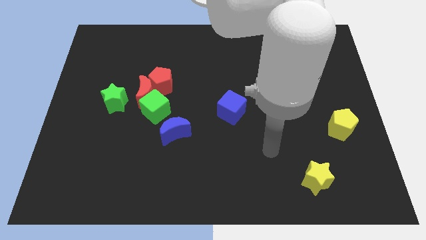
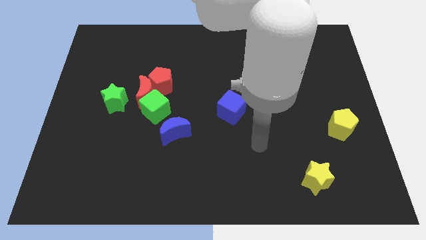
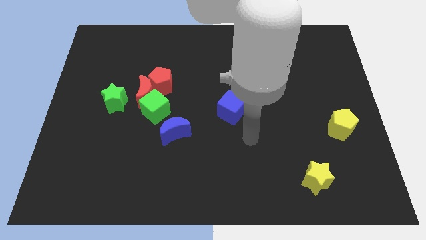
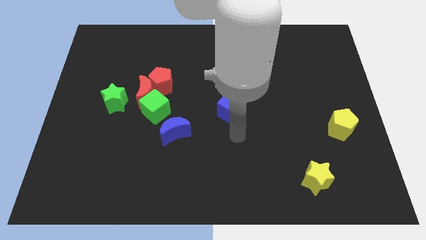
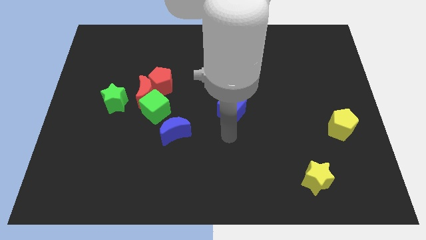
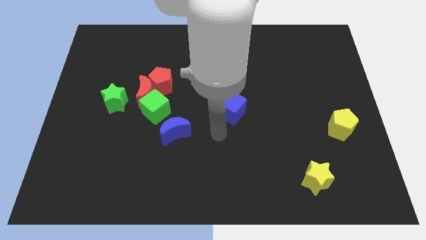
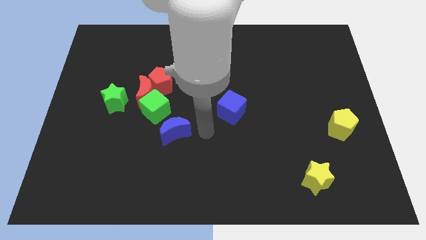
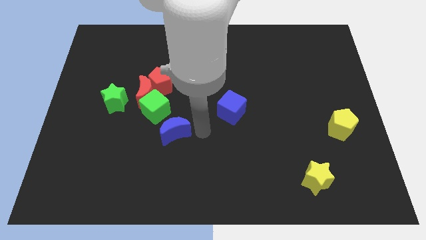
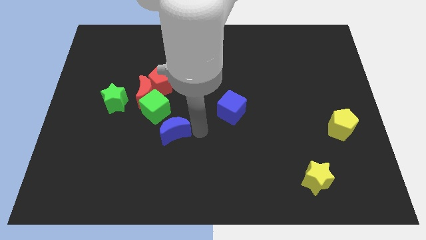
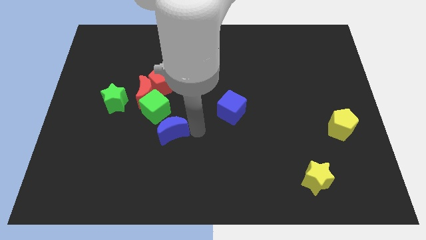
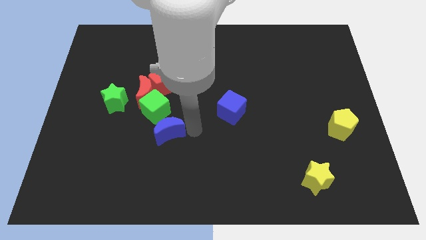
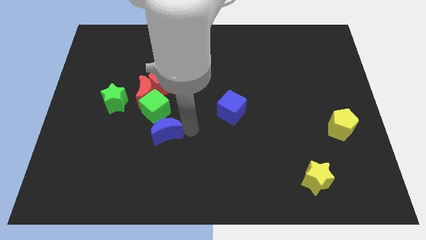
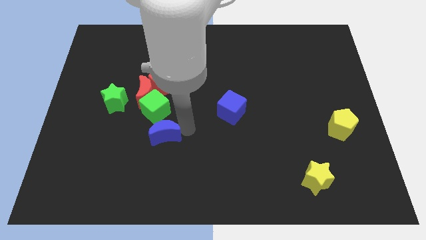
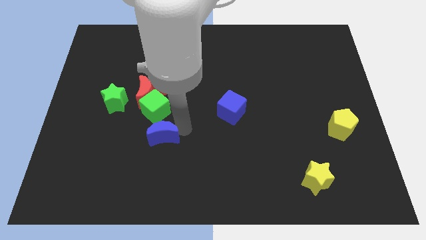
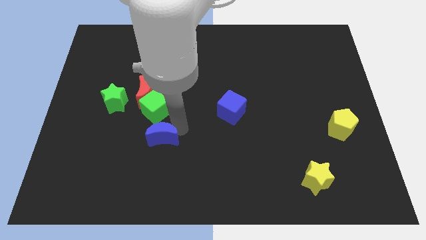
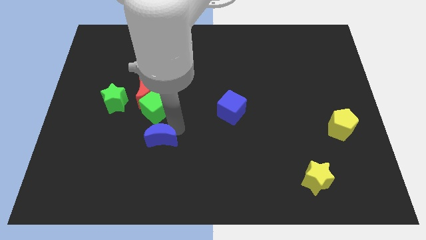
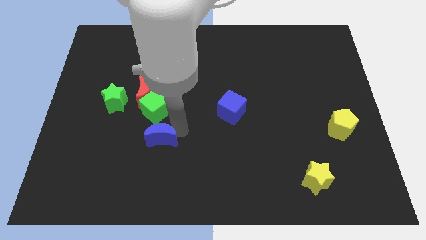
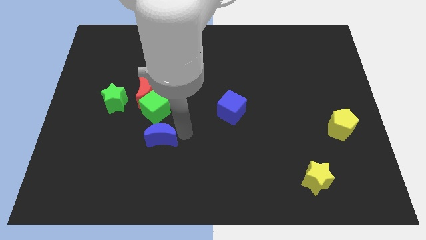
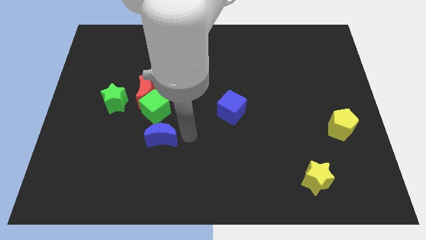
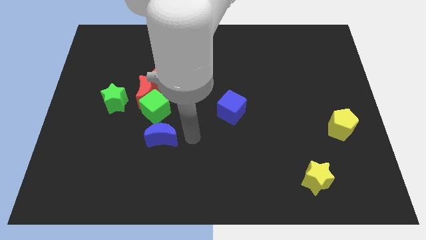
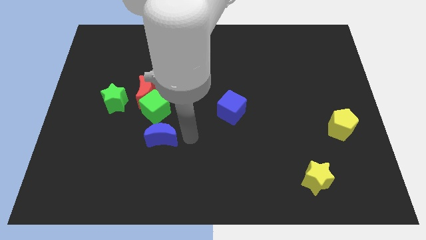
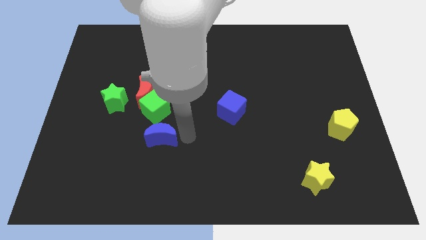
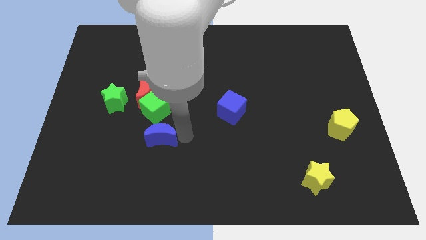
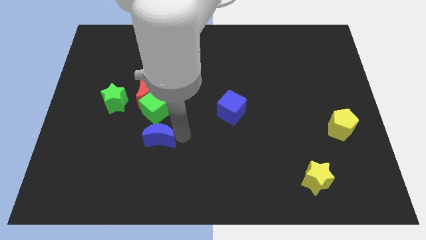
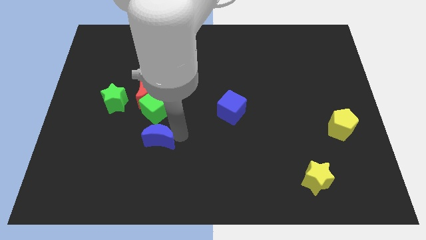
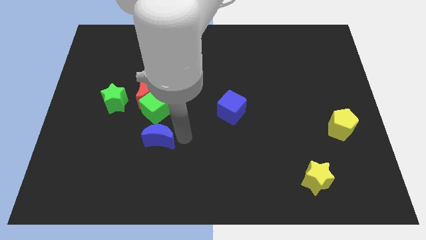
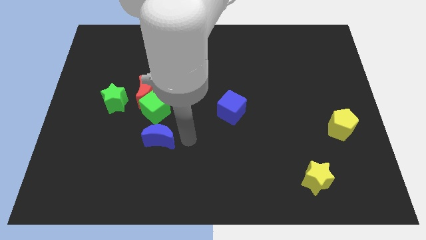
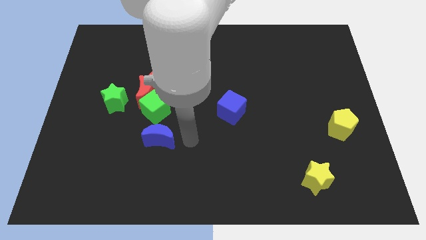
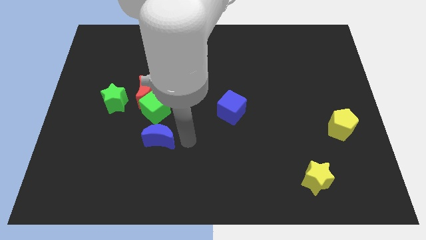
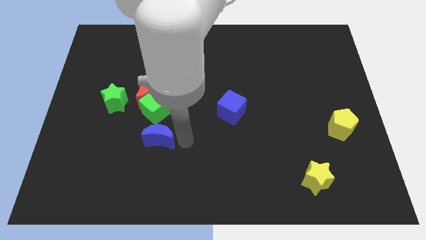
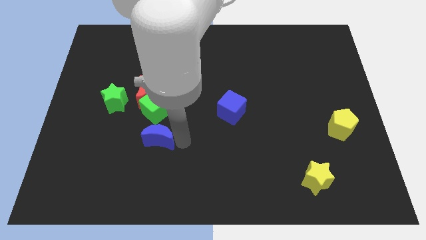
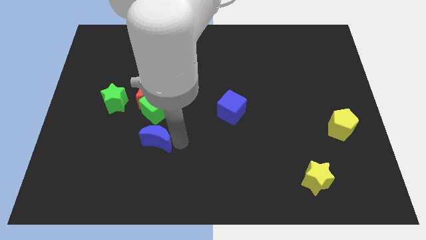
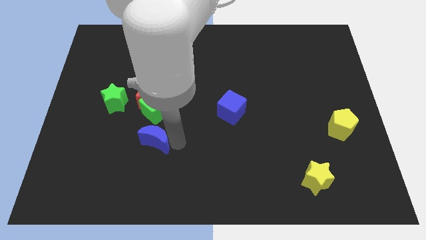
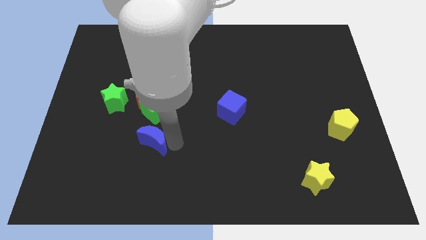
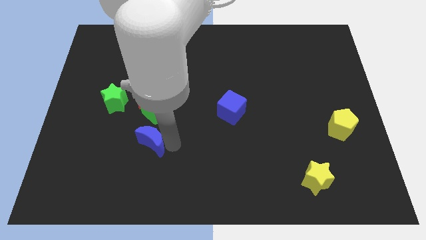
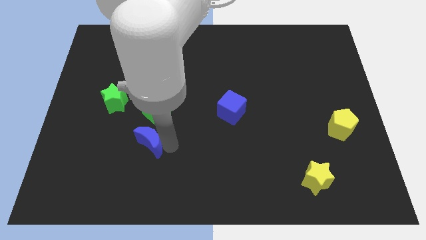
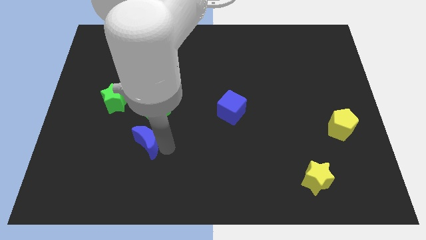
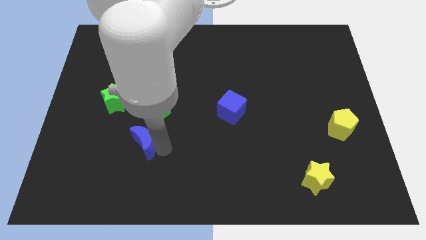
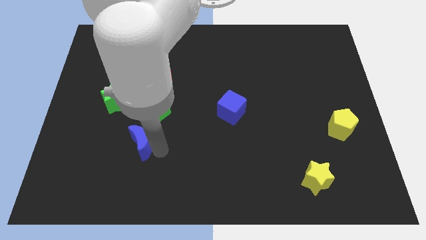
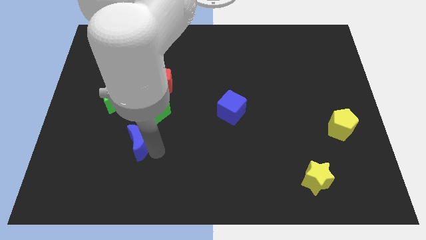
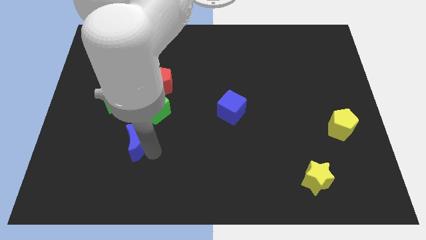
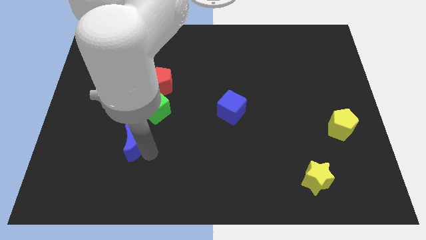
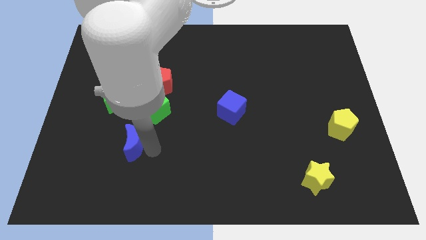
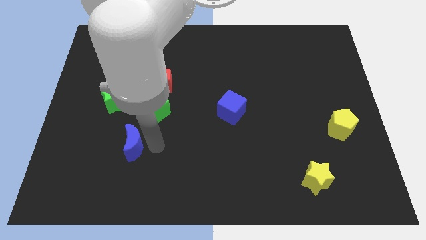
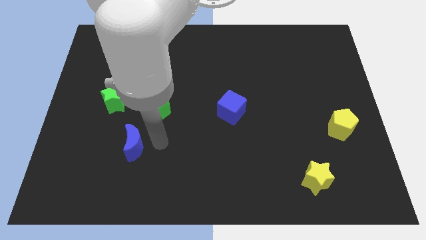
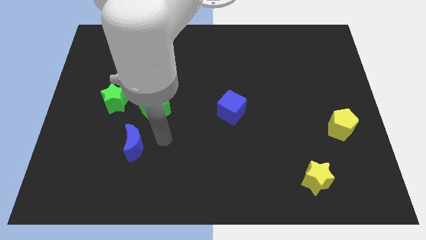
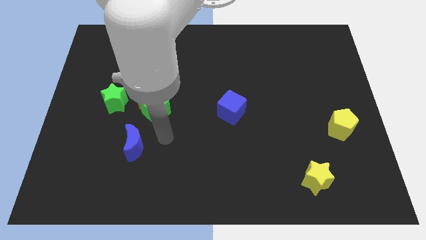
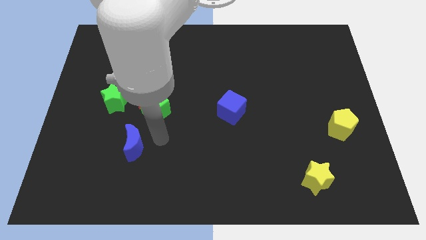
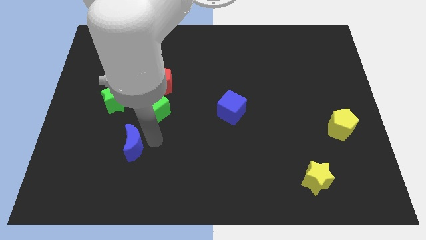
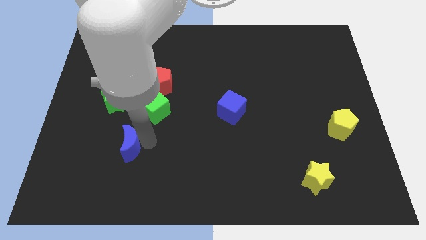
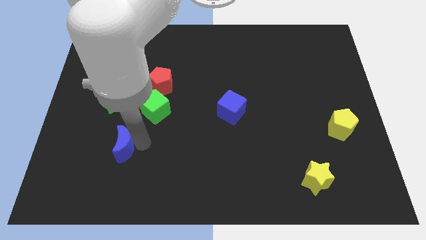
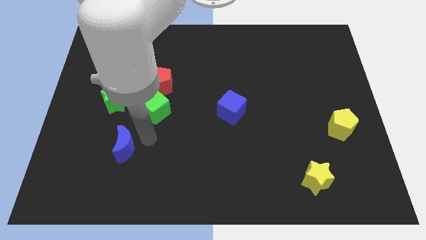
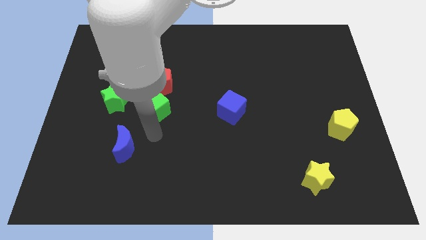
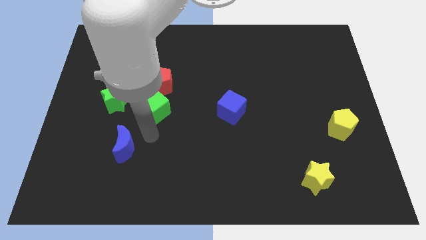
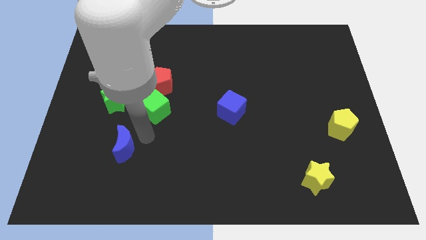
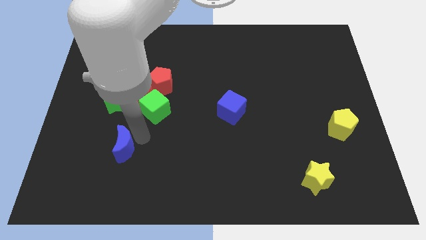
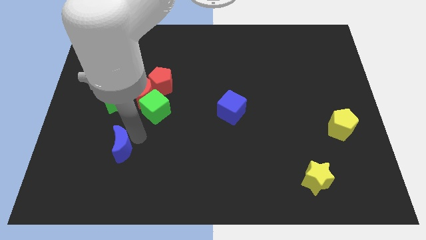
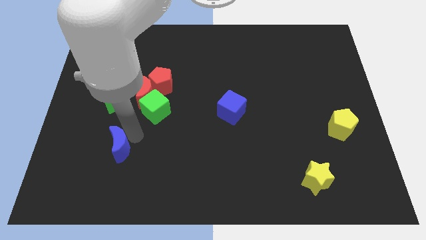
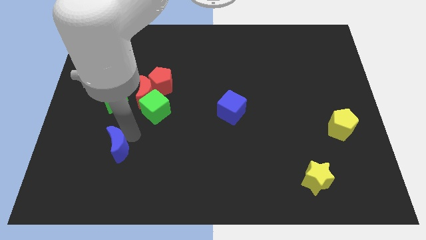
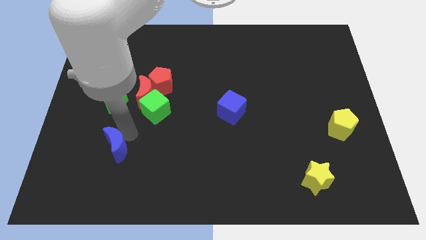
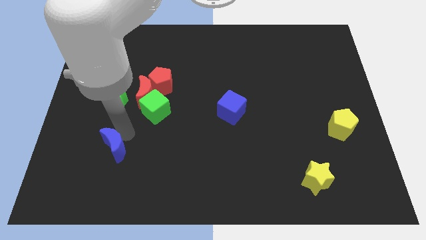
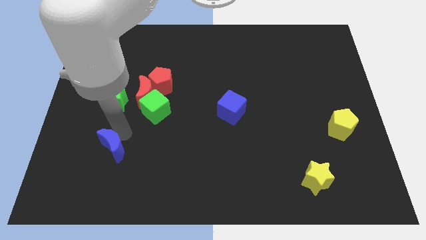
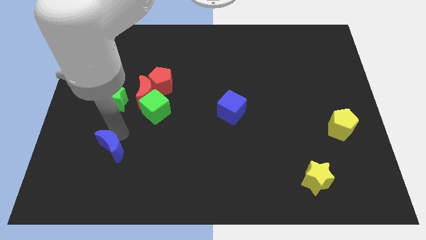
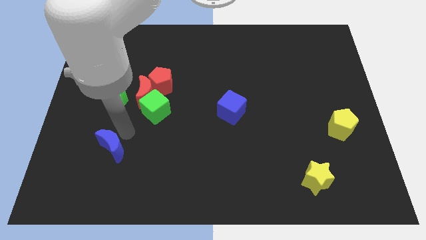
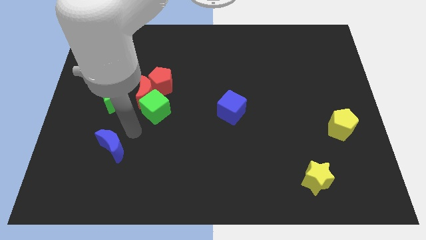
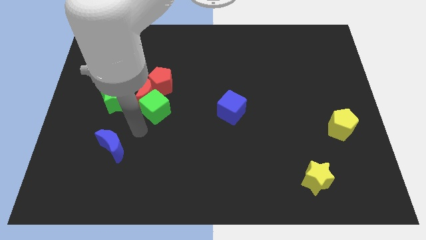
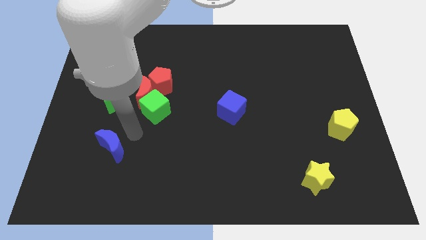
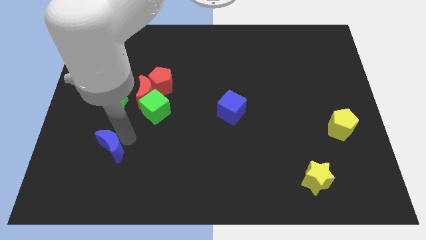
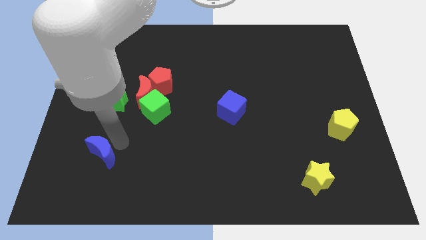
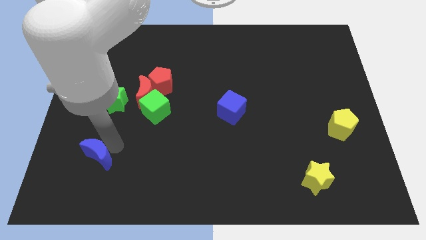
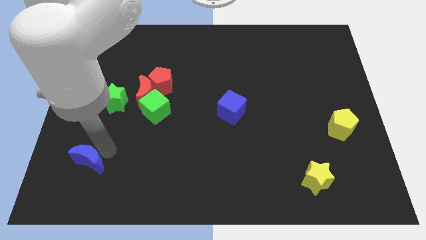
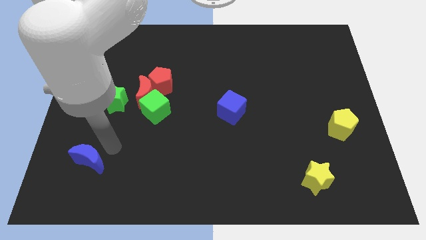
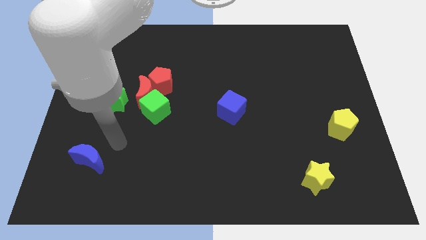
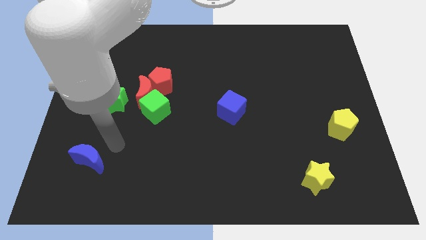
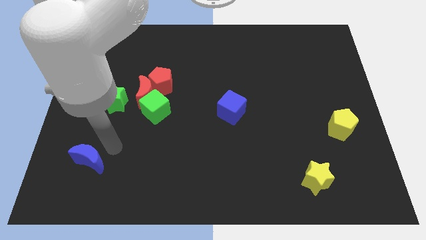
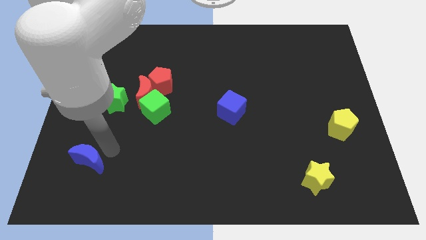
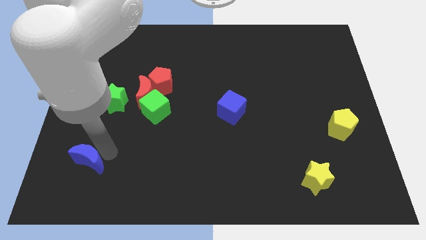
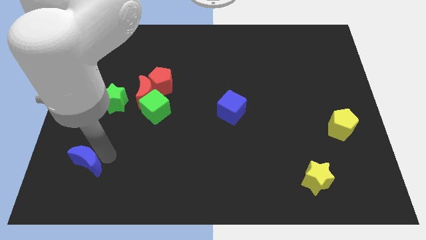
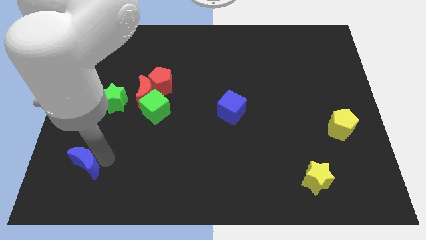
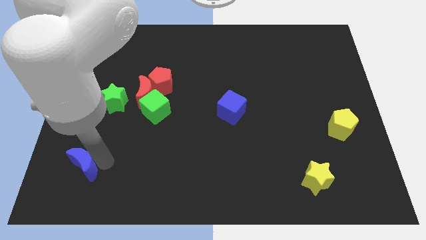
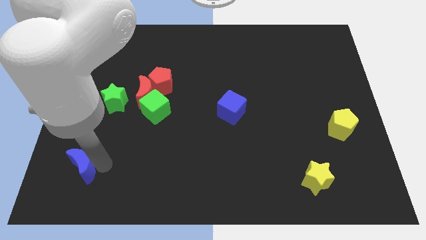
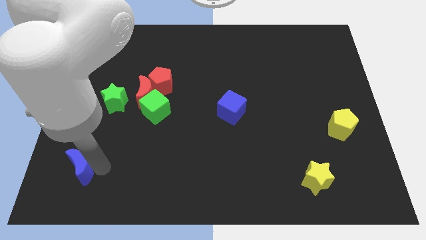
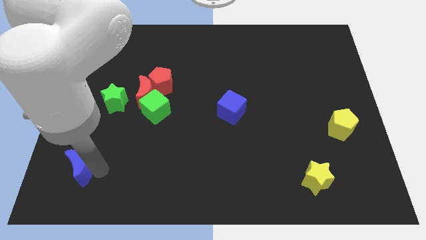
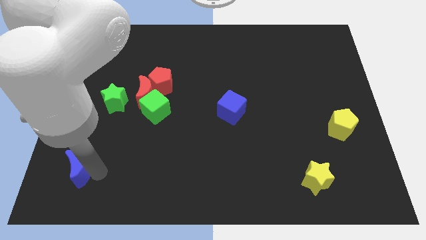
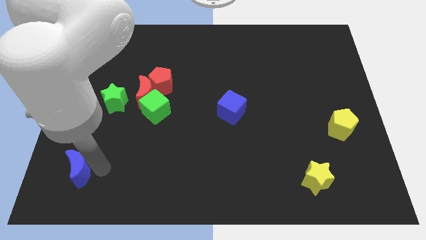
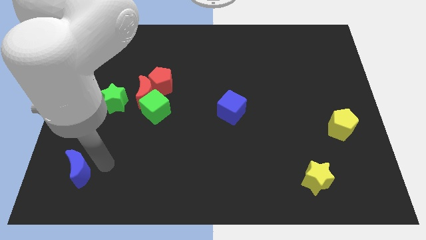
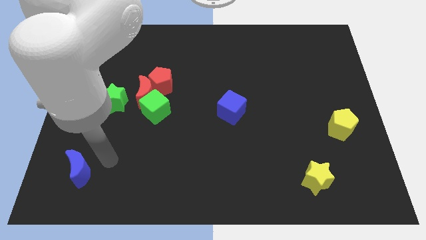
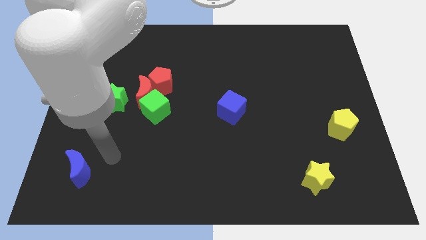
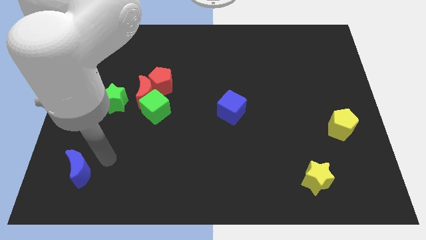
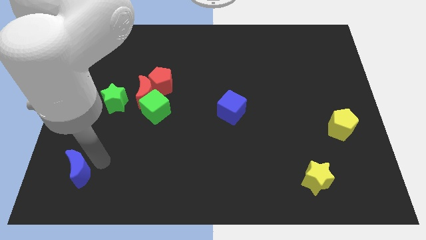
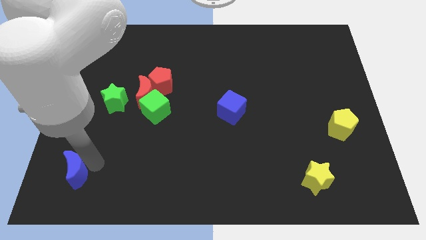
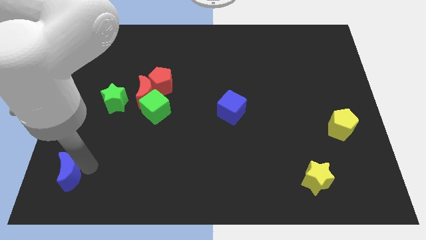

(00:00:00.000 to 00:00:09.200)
push the blue moon to the lower left corner
